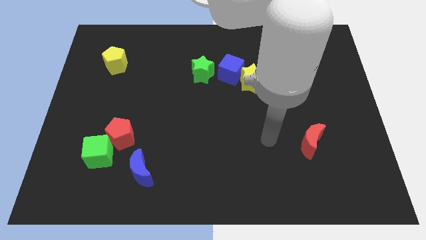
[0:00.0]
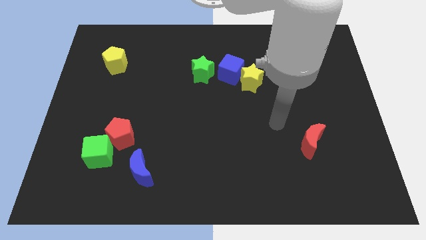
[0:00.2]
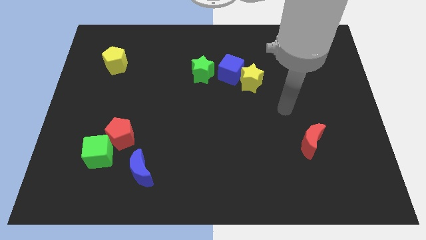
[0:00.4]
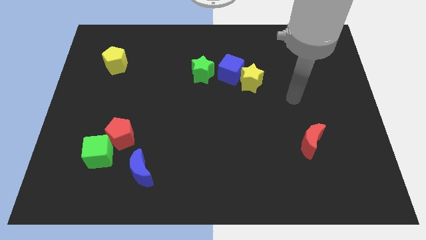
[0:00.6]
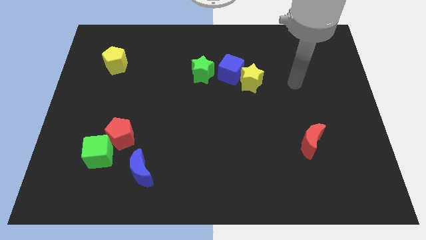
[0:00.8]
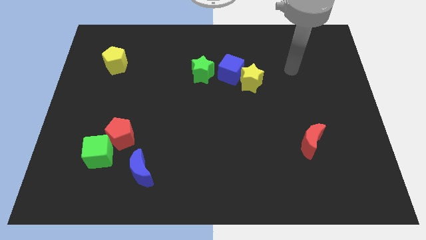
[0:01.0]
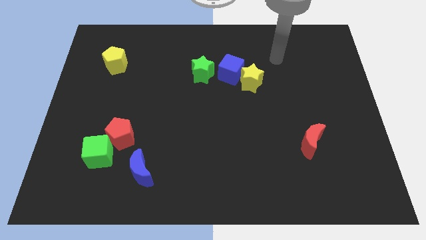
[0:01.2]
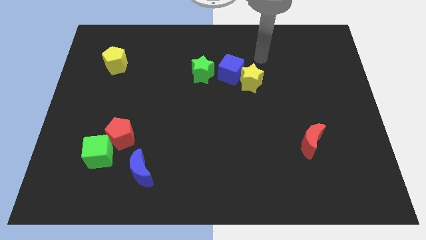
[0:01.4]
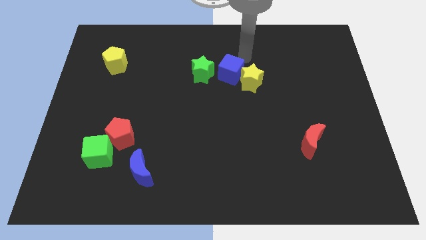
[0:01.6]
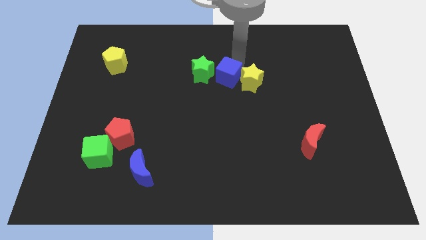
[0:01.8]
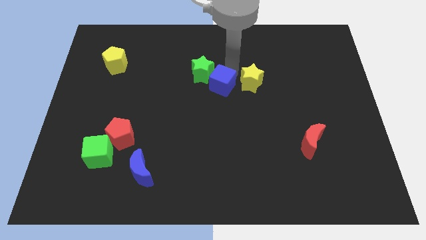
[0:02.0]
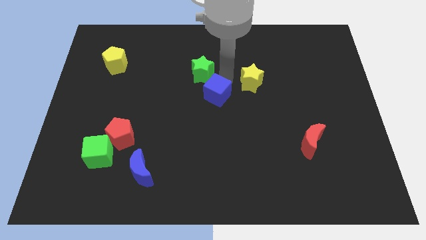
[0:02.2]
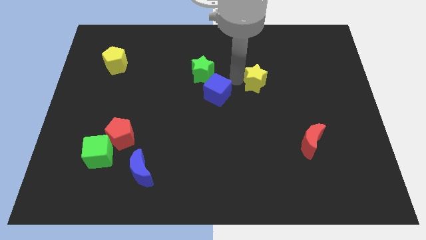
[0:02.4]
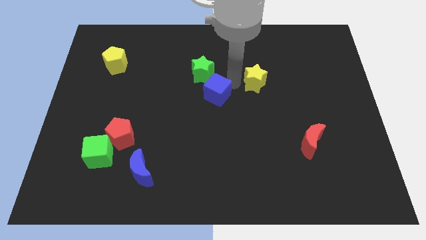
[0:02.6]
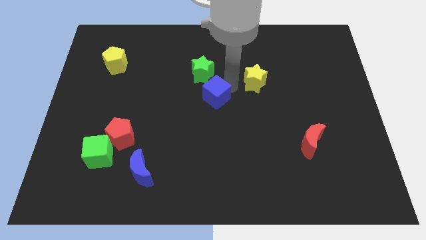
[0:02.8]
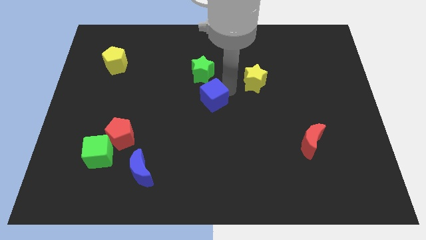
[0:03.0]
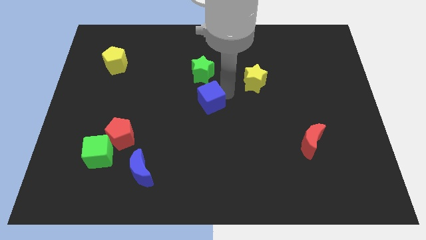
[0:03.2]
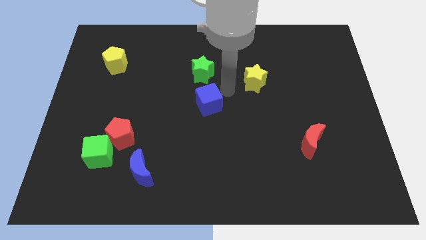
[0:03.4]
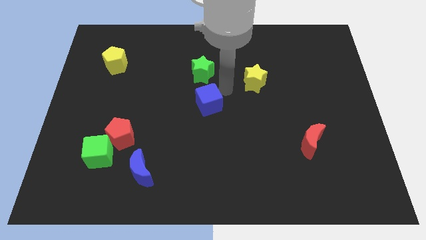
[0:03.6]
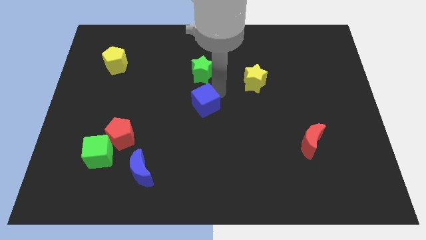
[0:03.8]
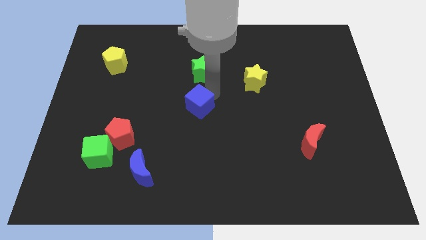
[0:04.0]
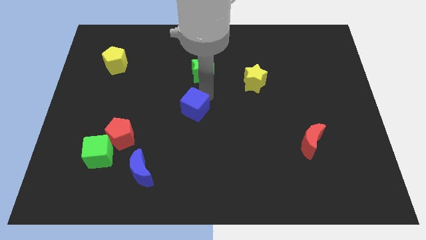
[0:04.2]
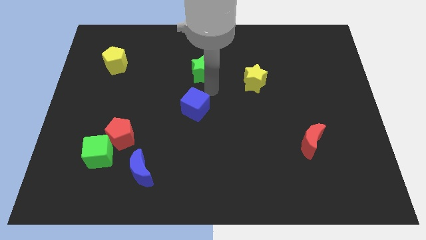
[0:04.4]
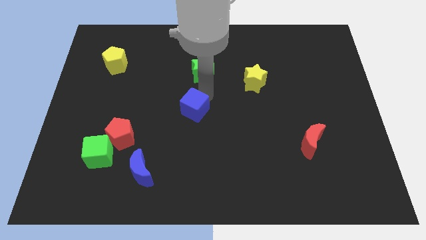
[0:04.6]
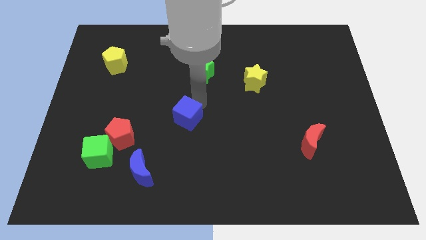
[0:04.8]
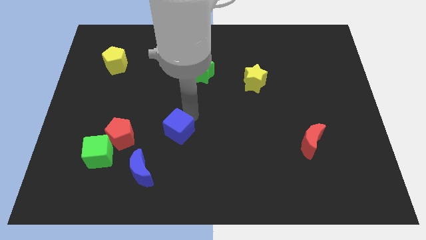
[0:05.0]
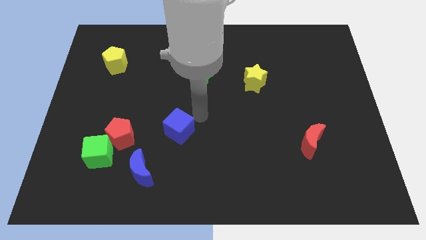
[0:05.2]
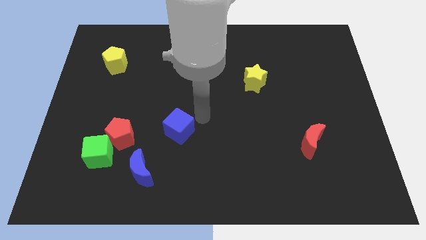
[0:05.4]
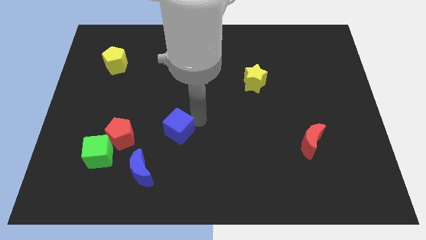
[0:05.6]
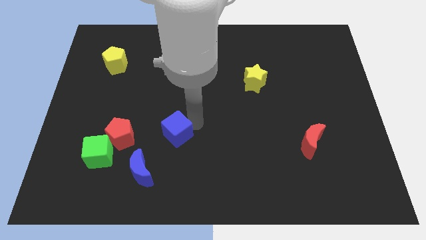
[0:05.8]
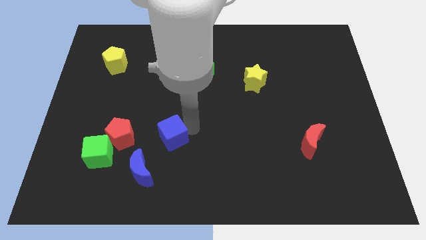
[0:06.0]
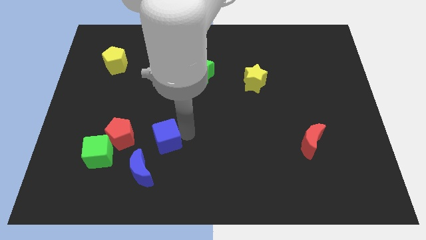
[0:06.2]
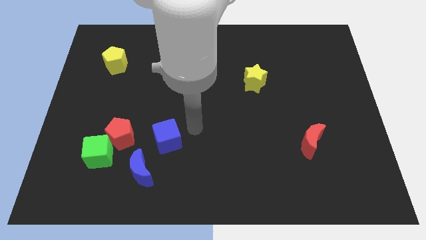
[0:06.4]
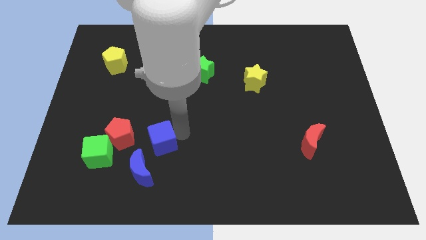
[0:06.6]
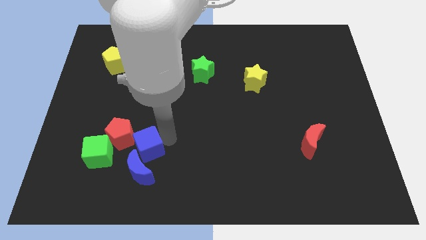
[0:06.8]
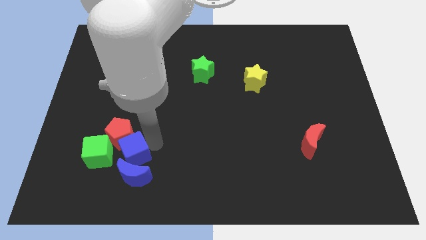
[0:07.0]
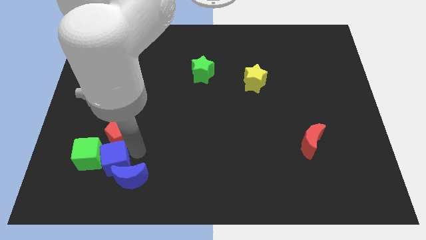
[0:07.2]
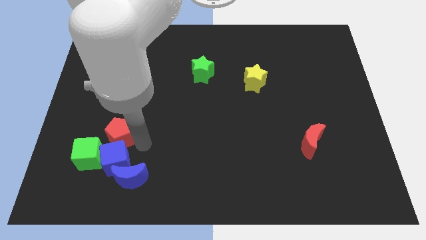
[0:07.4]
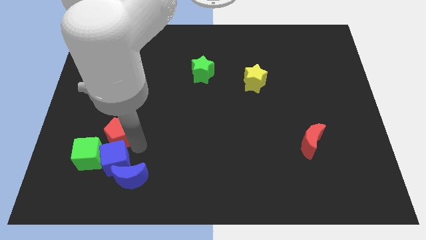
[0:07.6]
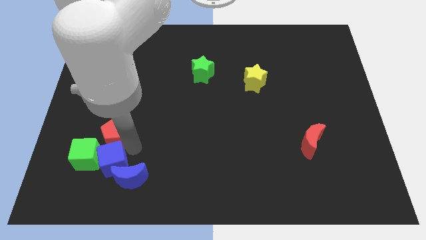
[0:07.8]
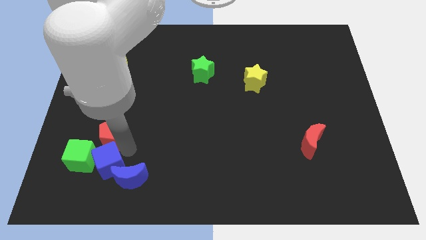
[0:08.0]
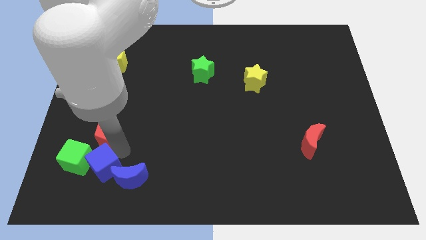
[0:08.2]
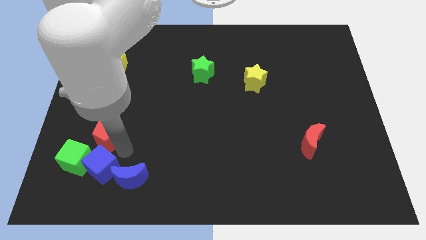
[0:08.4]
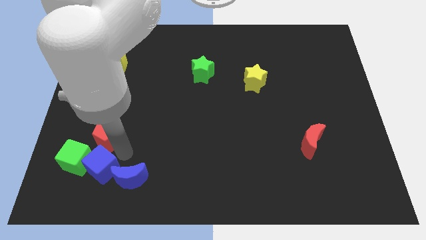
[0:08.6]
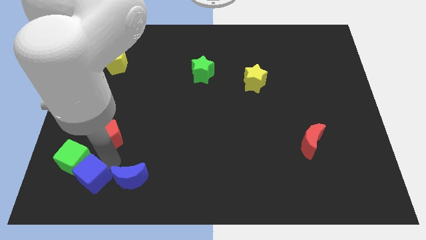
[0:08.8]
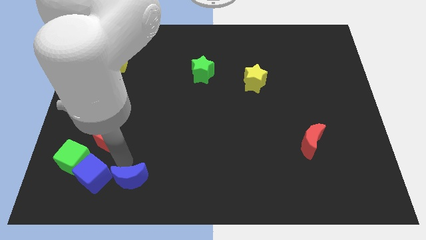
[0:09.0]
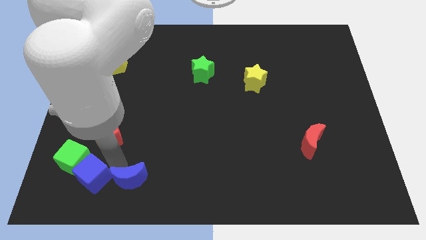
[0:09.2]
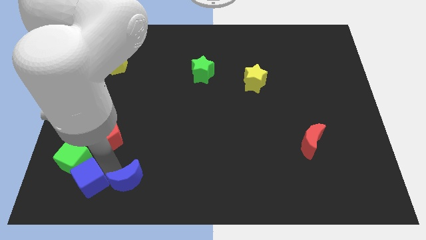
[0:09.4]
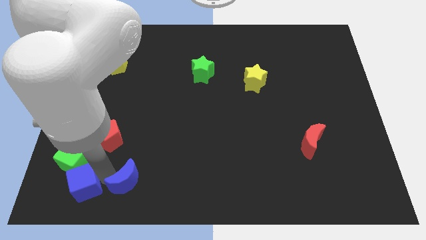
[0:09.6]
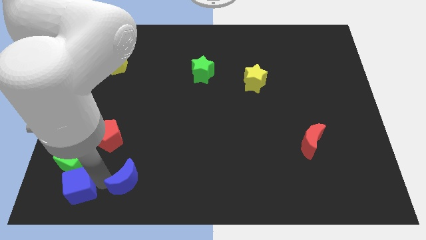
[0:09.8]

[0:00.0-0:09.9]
slide the blue cube to the lower left corner

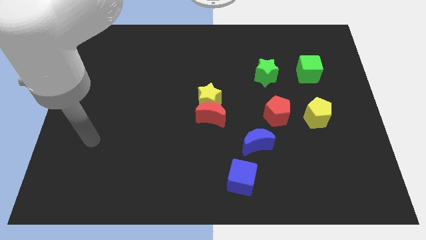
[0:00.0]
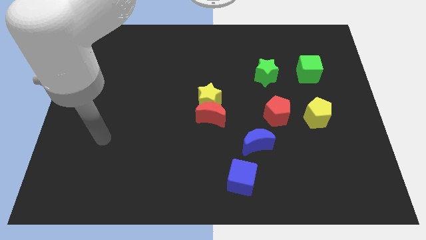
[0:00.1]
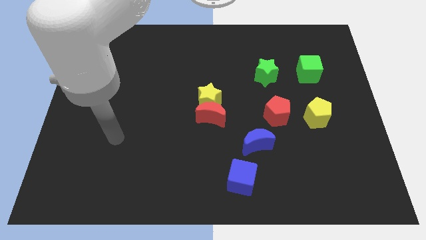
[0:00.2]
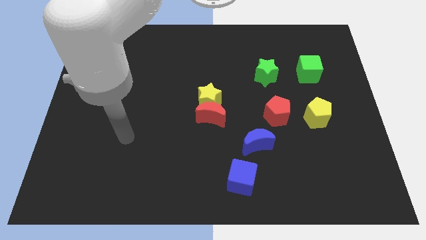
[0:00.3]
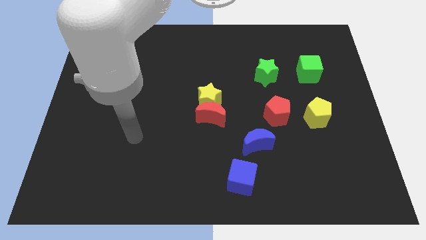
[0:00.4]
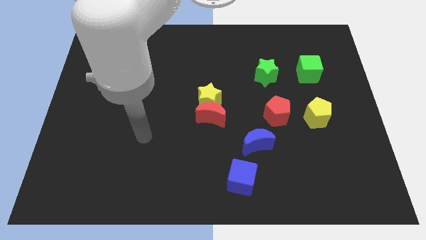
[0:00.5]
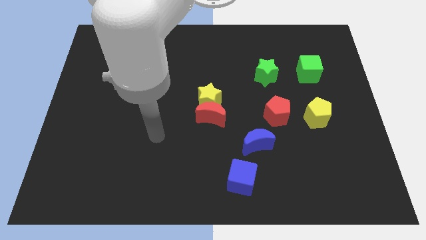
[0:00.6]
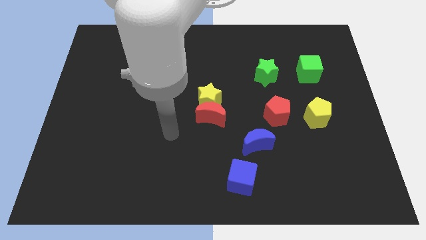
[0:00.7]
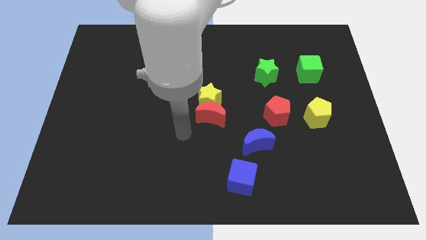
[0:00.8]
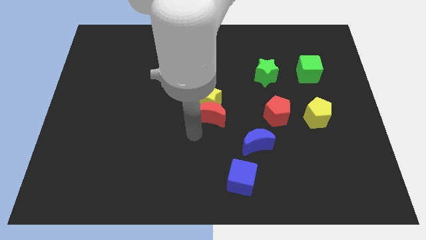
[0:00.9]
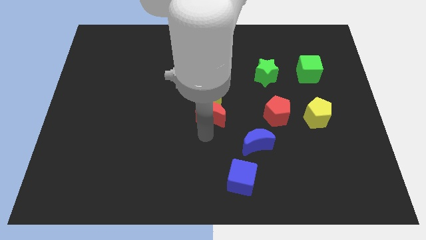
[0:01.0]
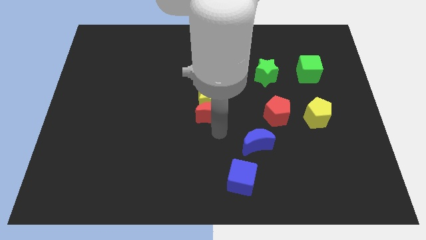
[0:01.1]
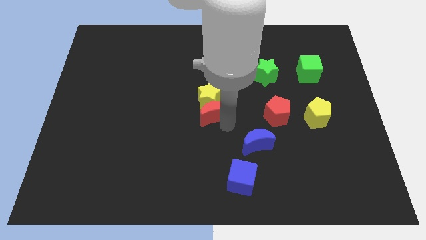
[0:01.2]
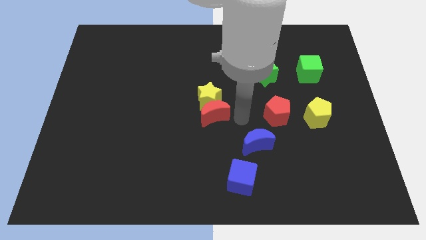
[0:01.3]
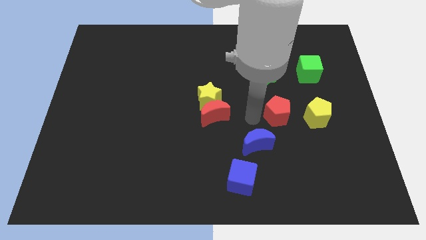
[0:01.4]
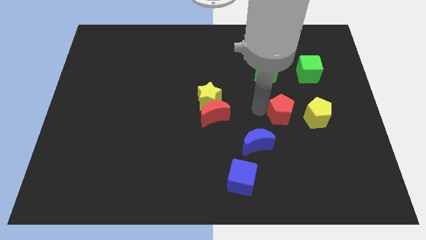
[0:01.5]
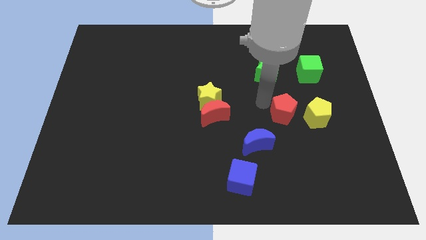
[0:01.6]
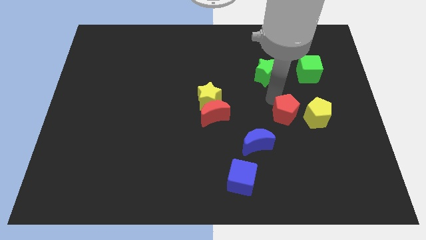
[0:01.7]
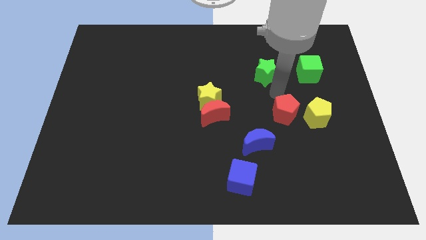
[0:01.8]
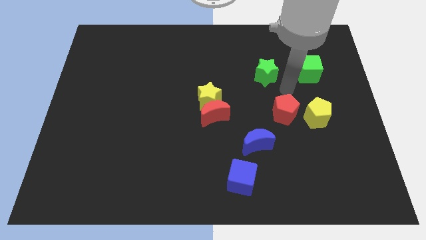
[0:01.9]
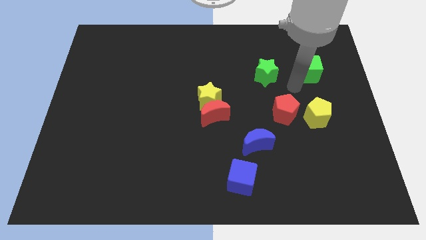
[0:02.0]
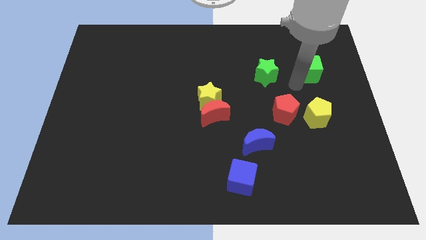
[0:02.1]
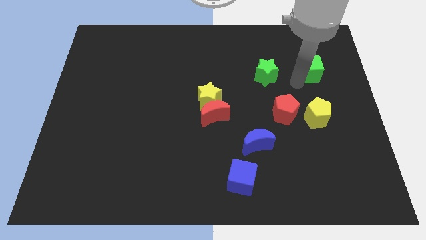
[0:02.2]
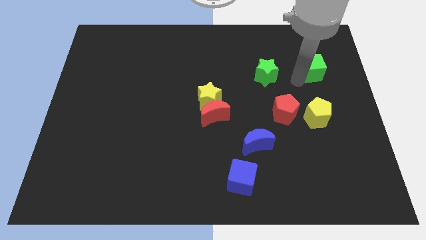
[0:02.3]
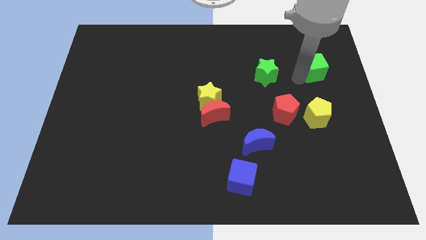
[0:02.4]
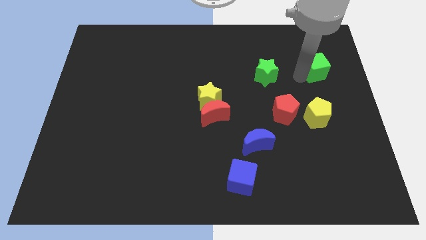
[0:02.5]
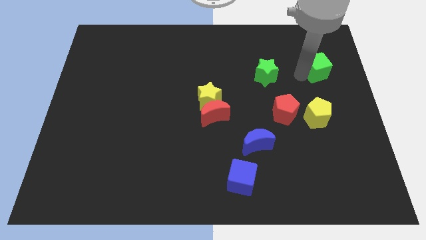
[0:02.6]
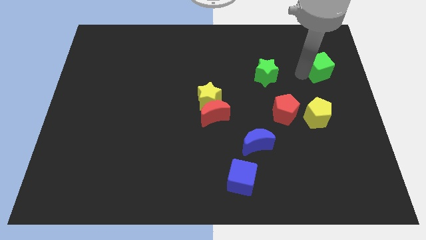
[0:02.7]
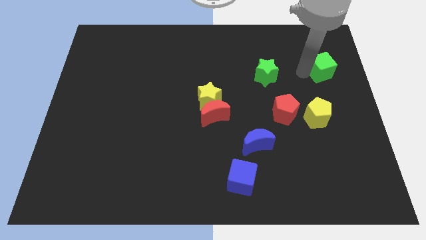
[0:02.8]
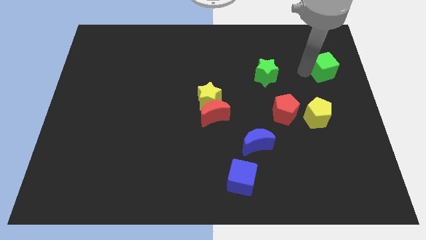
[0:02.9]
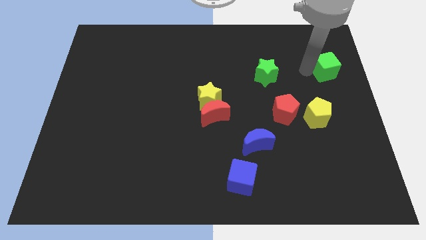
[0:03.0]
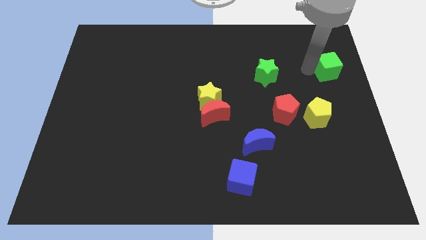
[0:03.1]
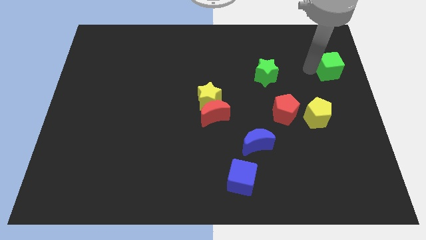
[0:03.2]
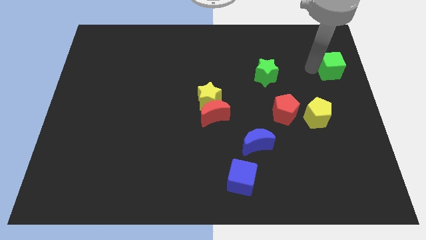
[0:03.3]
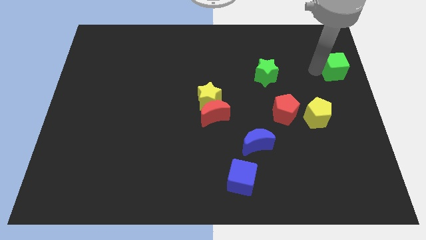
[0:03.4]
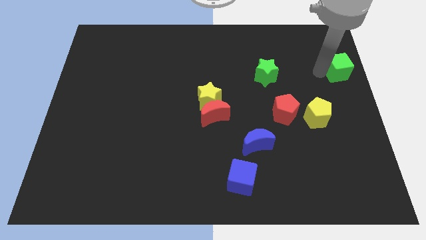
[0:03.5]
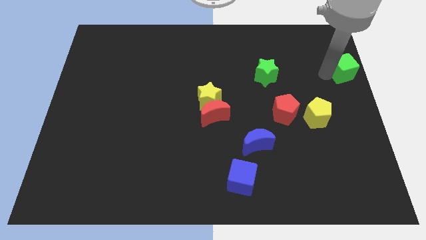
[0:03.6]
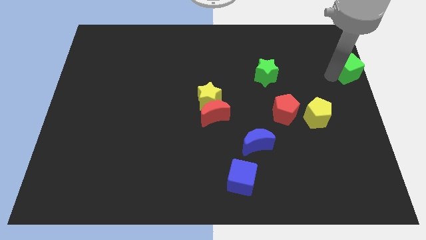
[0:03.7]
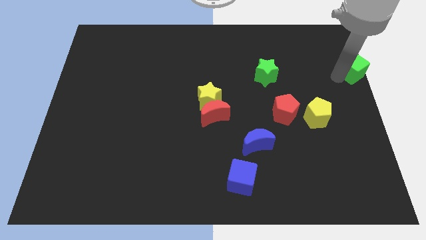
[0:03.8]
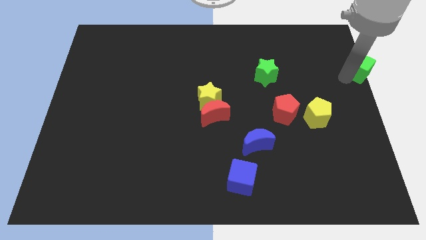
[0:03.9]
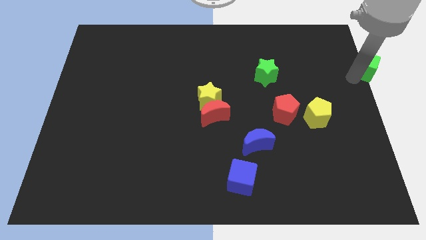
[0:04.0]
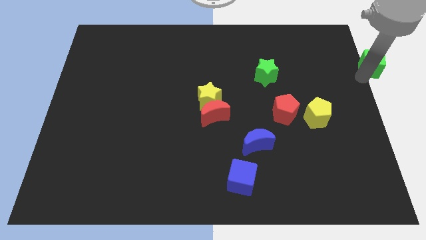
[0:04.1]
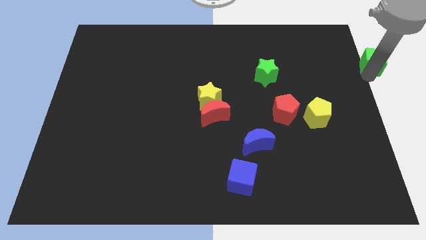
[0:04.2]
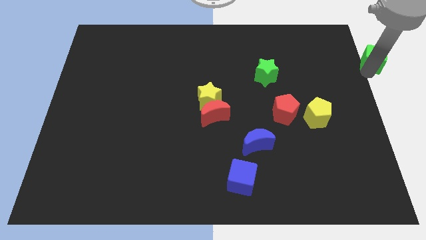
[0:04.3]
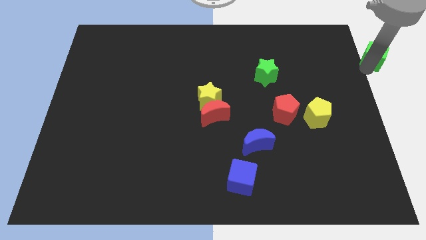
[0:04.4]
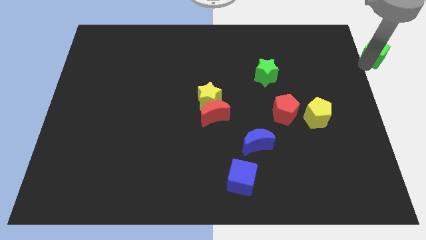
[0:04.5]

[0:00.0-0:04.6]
push the green cube to the top right of the board
